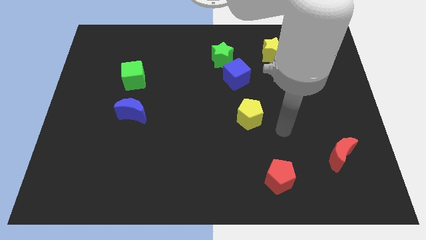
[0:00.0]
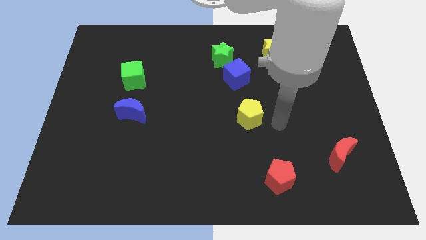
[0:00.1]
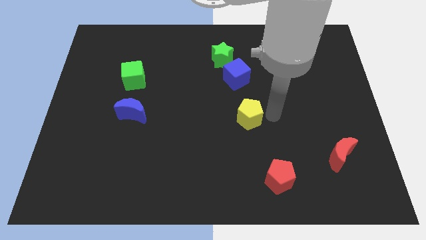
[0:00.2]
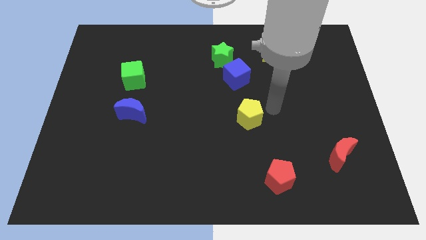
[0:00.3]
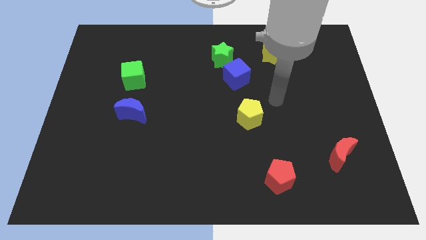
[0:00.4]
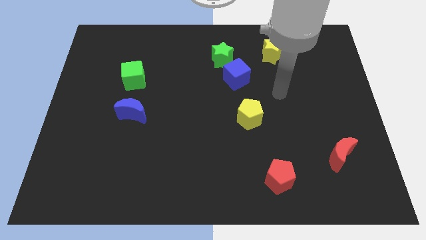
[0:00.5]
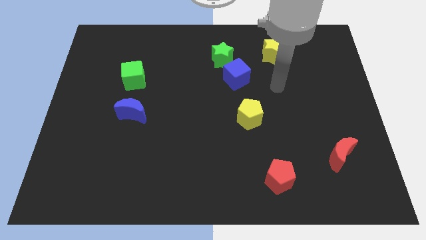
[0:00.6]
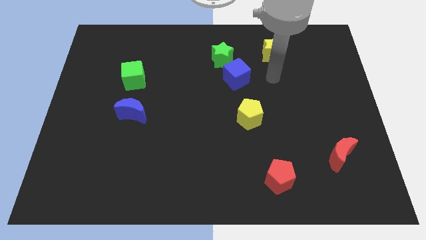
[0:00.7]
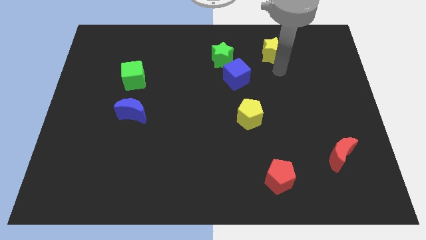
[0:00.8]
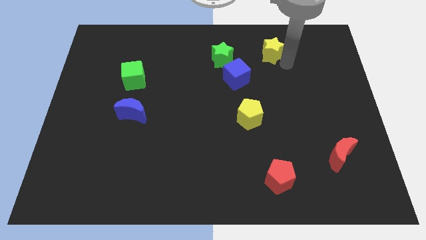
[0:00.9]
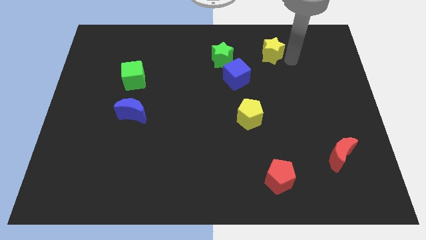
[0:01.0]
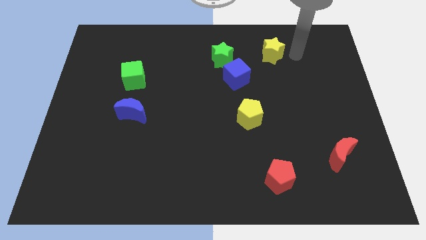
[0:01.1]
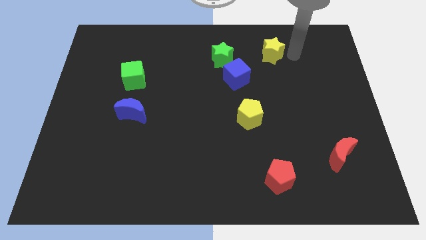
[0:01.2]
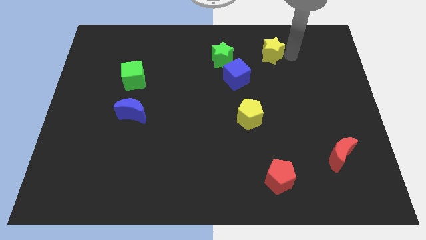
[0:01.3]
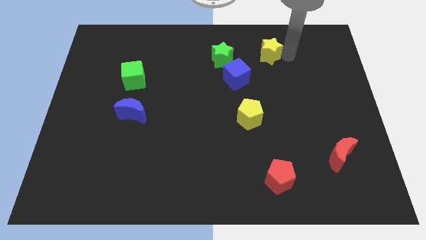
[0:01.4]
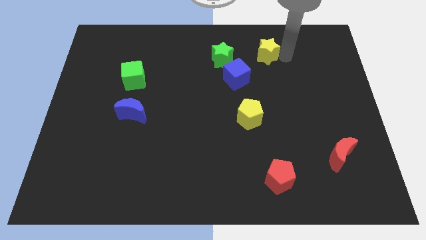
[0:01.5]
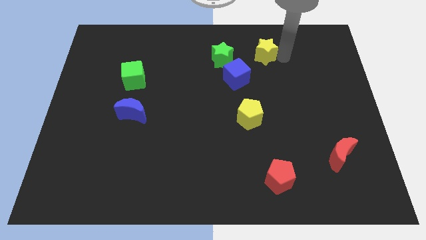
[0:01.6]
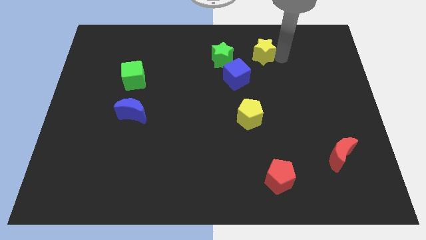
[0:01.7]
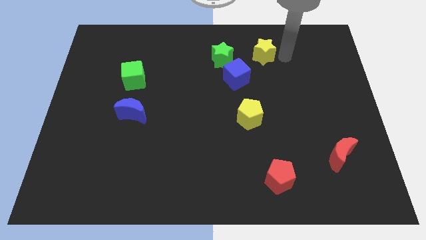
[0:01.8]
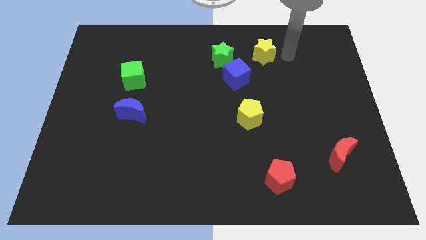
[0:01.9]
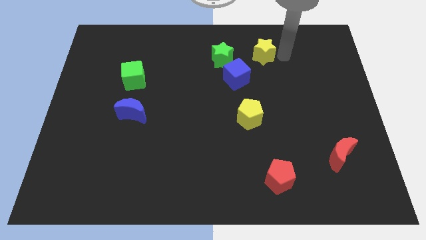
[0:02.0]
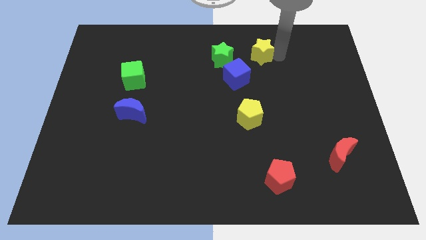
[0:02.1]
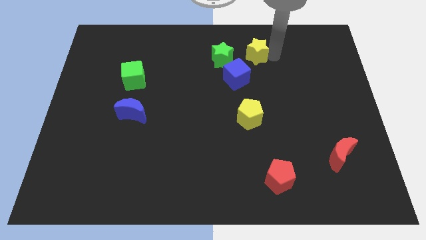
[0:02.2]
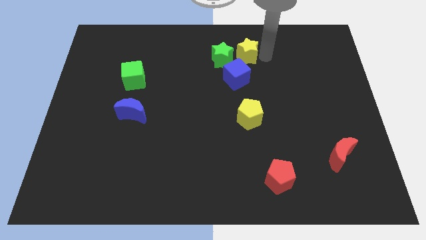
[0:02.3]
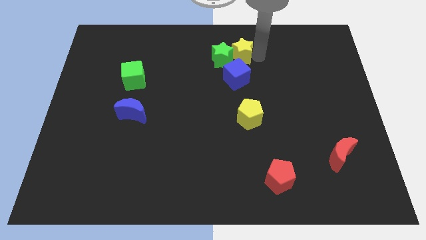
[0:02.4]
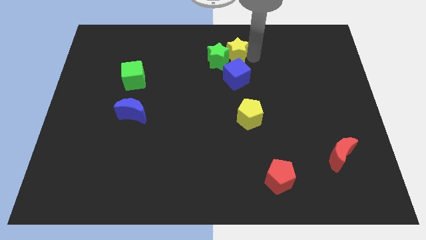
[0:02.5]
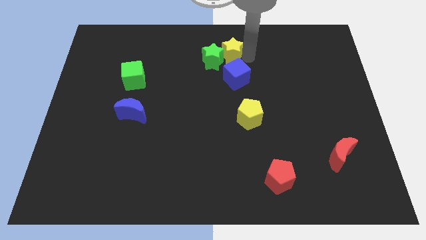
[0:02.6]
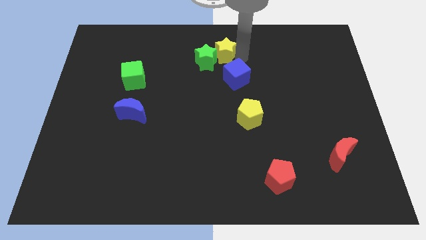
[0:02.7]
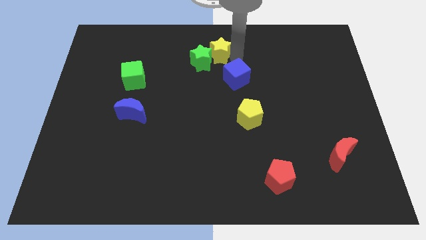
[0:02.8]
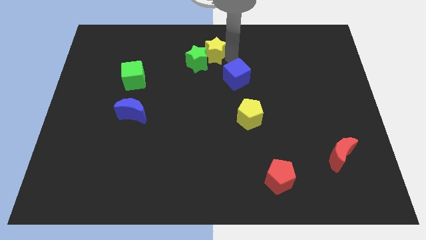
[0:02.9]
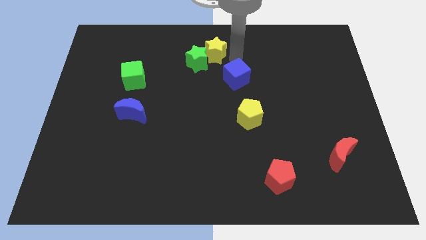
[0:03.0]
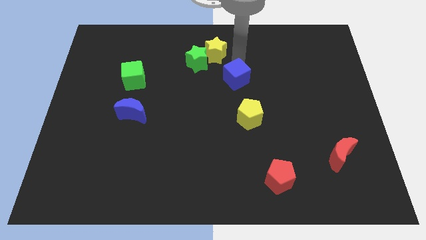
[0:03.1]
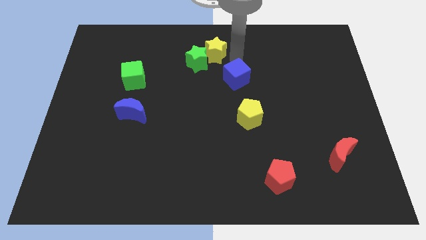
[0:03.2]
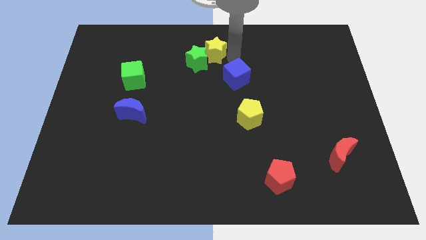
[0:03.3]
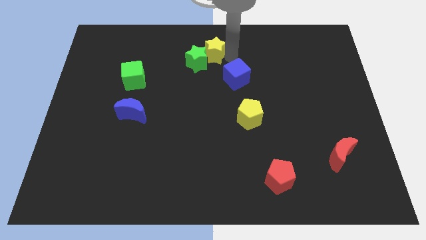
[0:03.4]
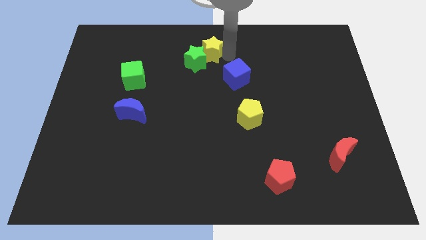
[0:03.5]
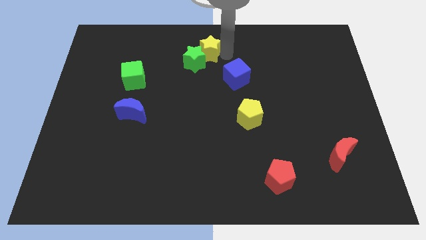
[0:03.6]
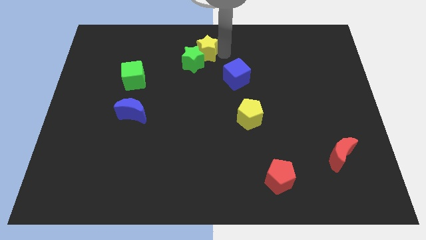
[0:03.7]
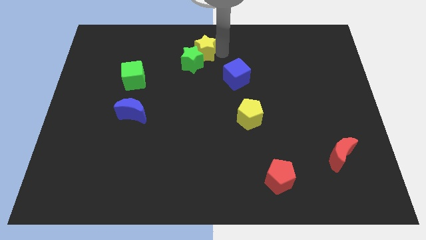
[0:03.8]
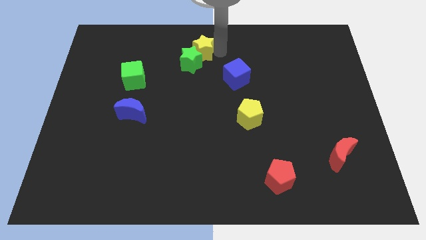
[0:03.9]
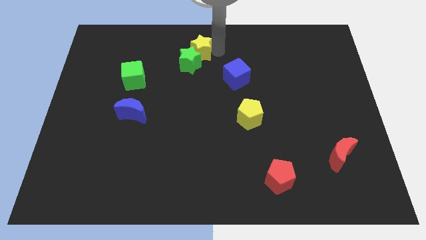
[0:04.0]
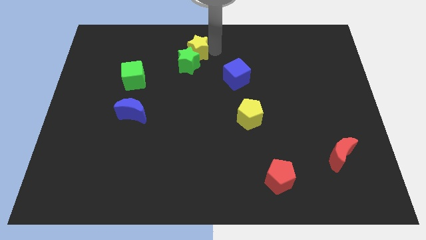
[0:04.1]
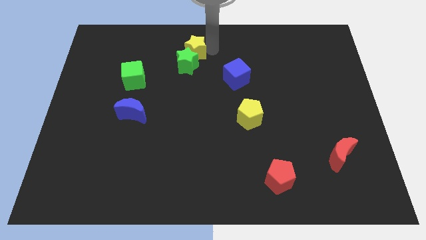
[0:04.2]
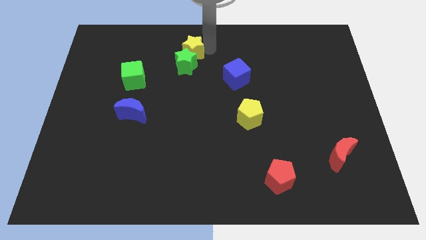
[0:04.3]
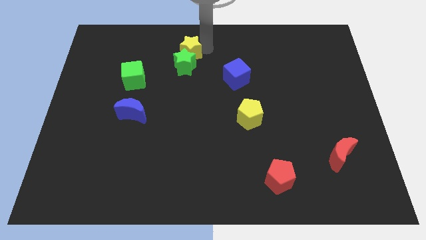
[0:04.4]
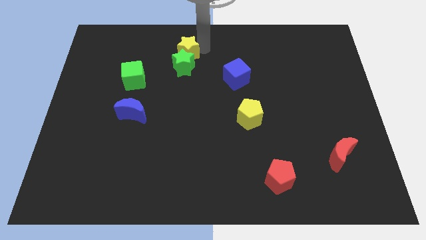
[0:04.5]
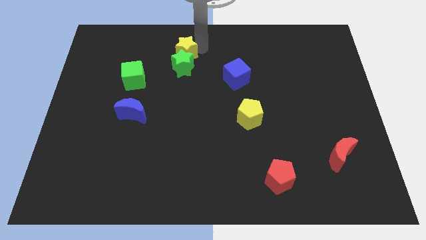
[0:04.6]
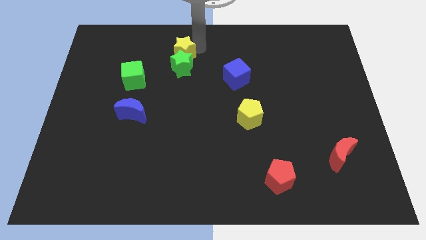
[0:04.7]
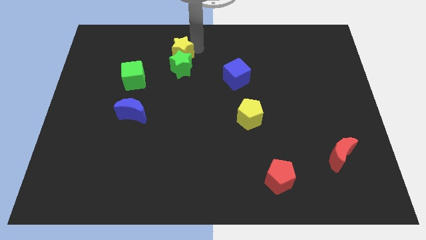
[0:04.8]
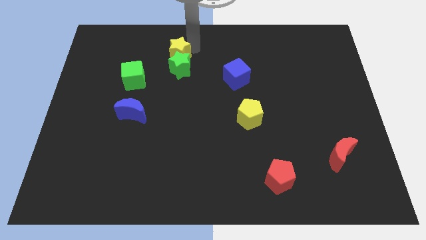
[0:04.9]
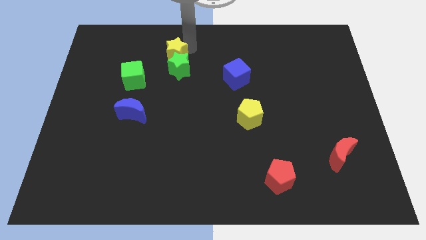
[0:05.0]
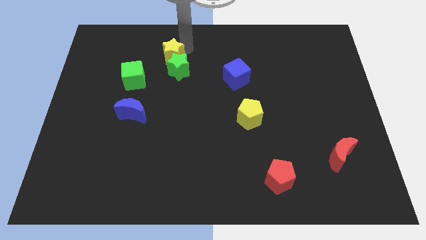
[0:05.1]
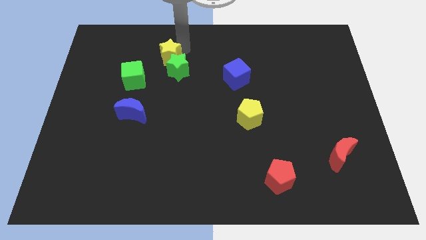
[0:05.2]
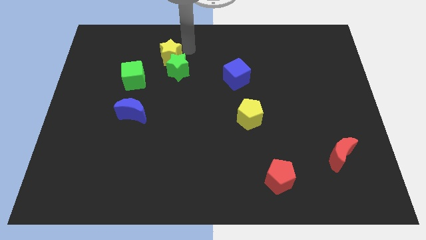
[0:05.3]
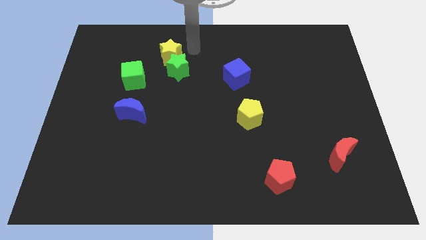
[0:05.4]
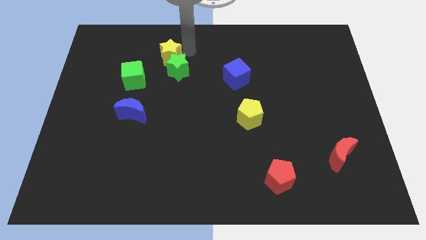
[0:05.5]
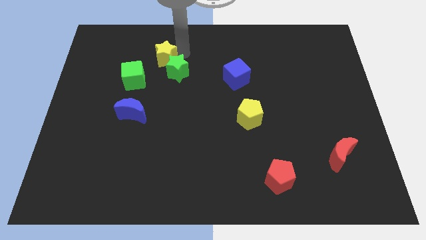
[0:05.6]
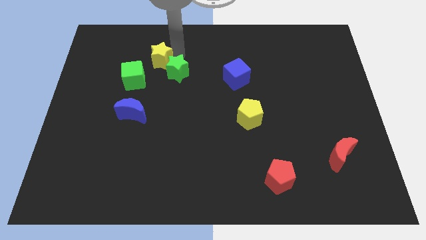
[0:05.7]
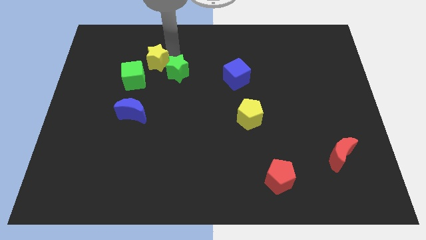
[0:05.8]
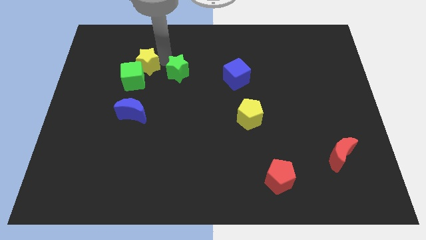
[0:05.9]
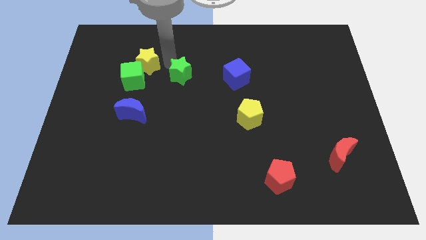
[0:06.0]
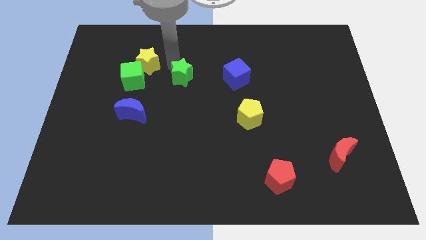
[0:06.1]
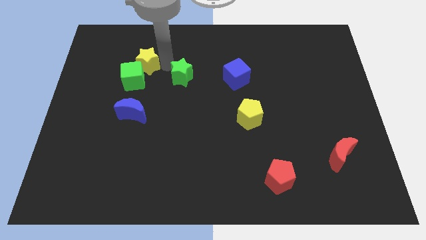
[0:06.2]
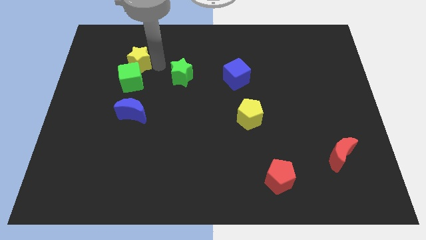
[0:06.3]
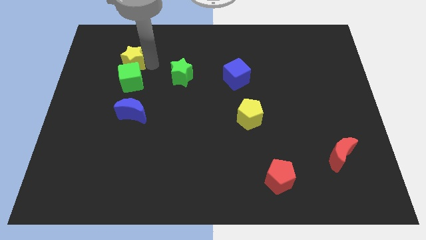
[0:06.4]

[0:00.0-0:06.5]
move the yellow star to the top left side of the green cube

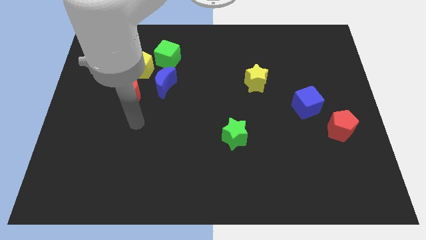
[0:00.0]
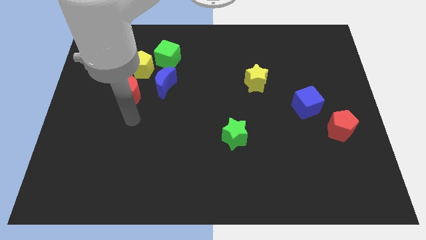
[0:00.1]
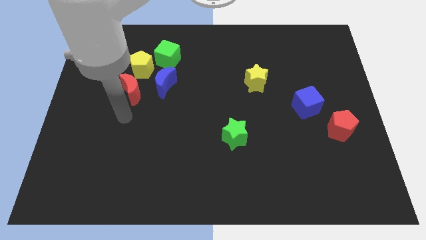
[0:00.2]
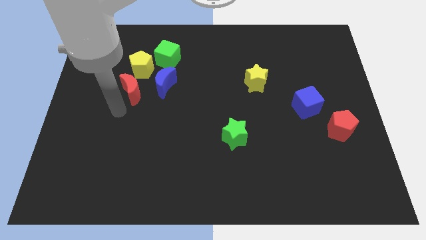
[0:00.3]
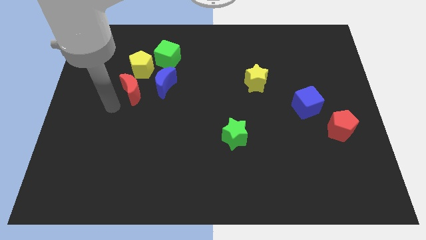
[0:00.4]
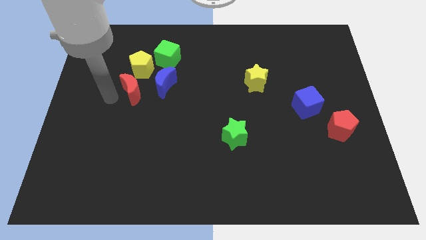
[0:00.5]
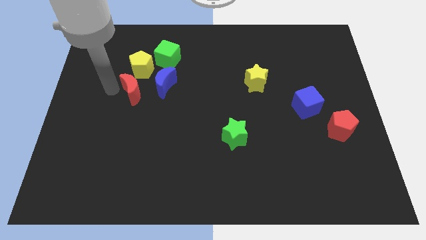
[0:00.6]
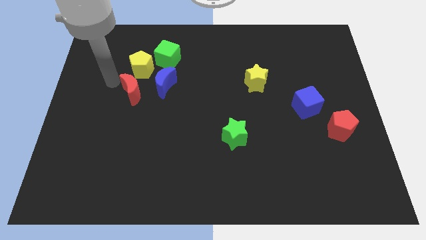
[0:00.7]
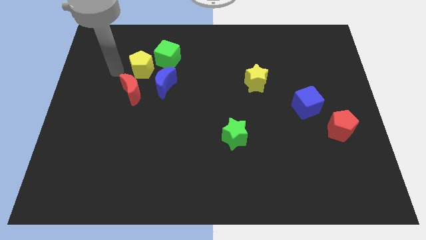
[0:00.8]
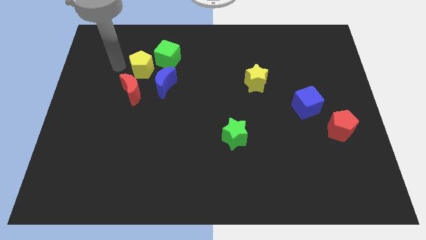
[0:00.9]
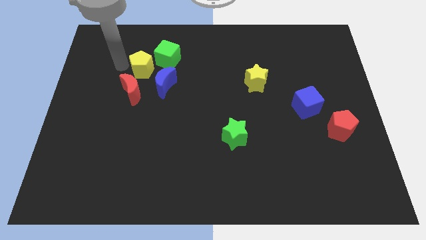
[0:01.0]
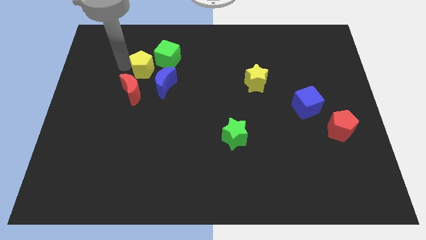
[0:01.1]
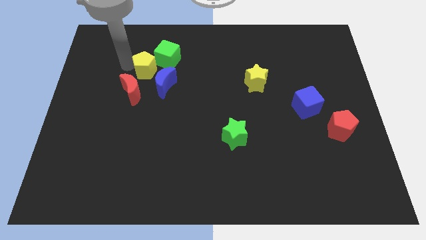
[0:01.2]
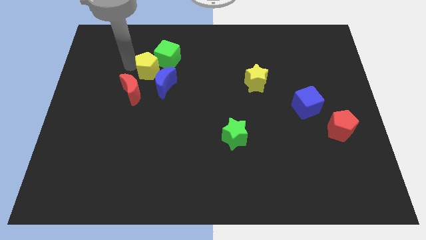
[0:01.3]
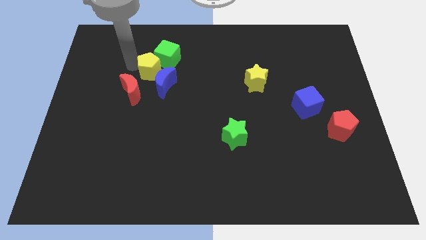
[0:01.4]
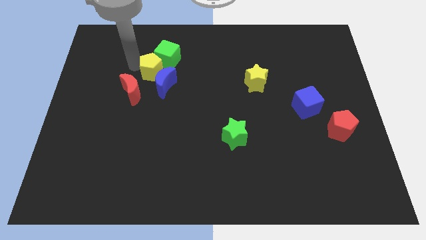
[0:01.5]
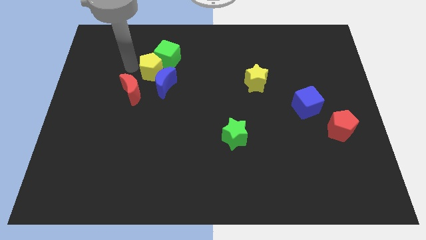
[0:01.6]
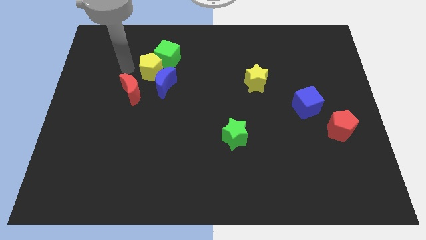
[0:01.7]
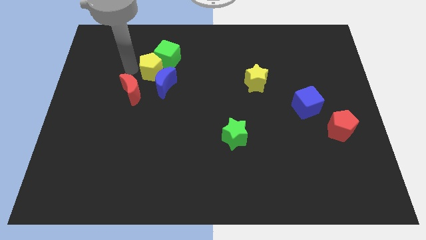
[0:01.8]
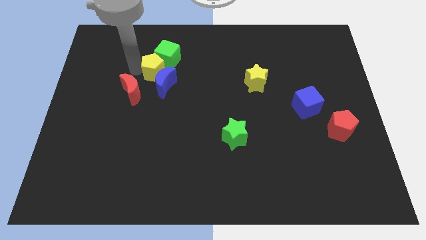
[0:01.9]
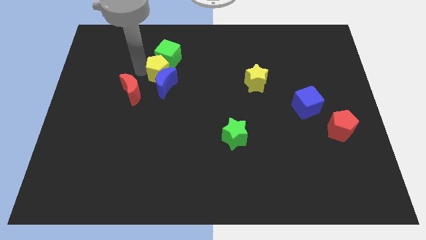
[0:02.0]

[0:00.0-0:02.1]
slide the yellow pentagon diagonally up and to the right of the blue moon
